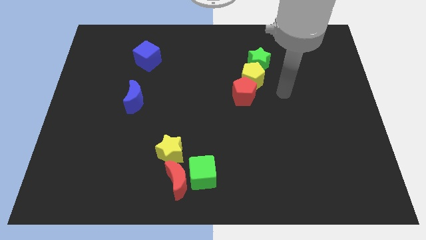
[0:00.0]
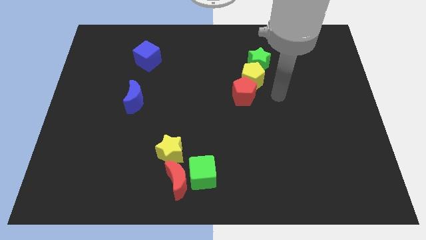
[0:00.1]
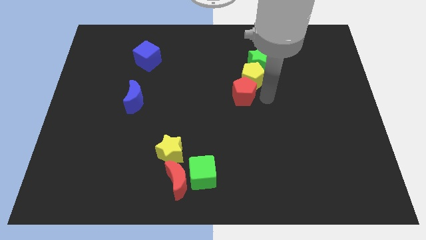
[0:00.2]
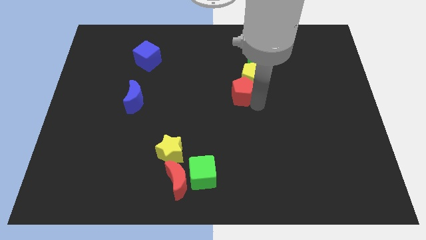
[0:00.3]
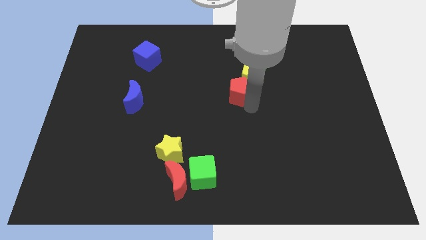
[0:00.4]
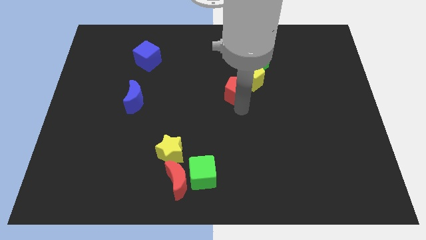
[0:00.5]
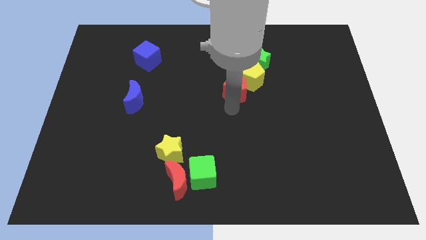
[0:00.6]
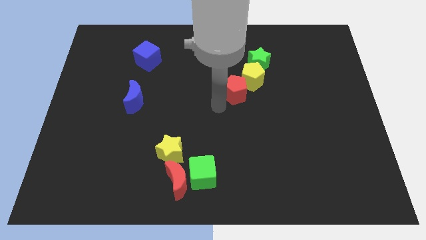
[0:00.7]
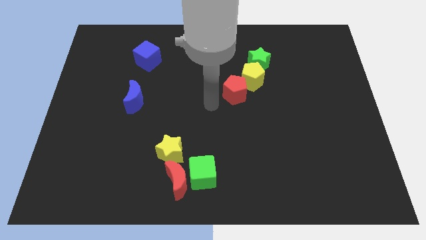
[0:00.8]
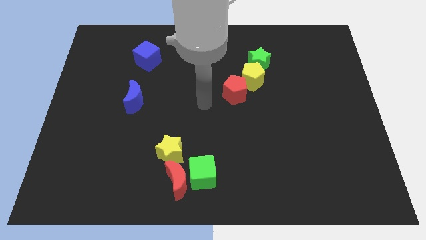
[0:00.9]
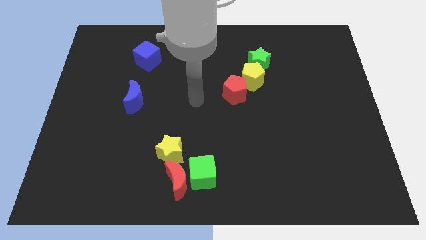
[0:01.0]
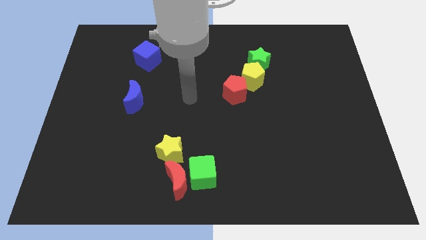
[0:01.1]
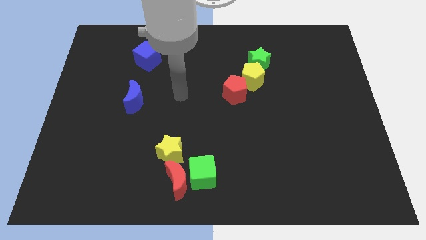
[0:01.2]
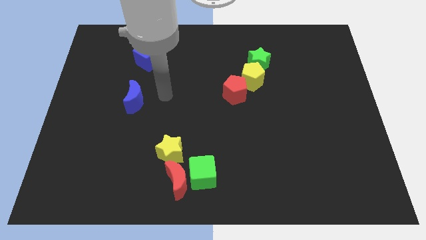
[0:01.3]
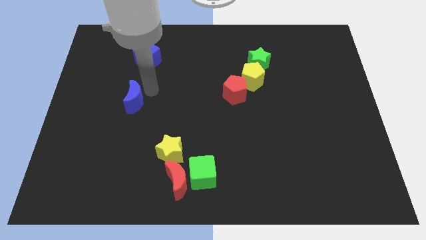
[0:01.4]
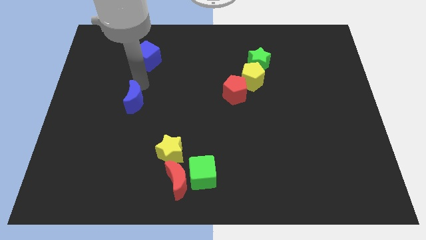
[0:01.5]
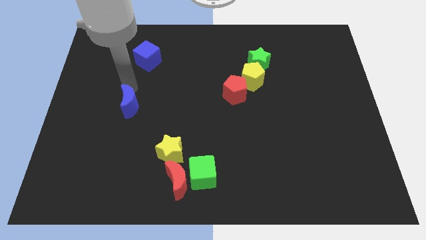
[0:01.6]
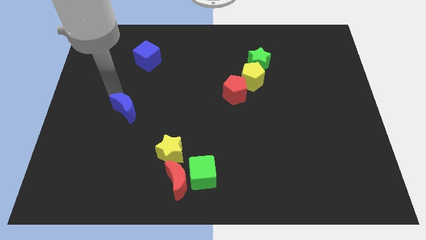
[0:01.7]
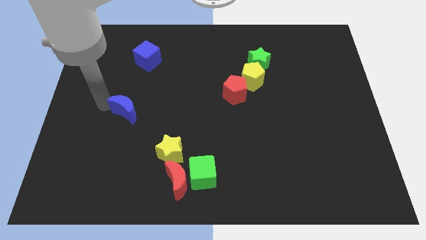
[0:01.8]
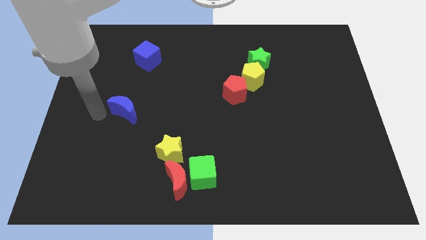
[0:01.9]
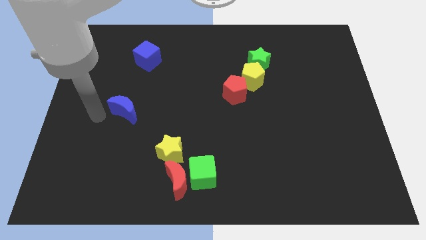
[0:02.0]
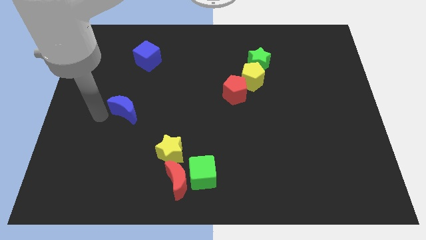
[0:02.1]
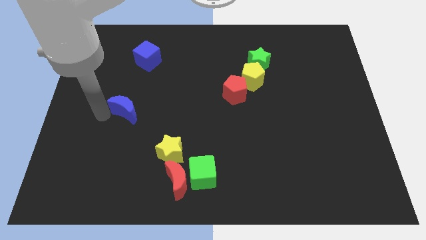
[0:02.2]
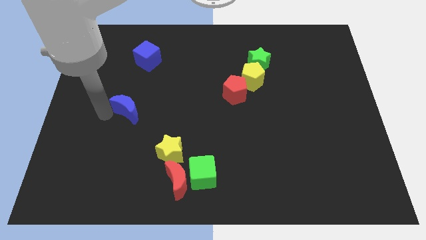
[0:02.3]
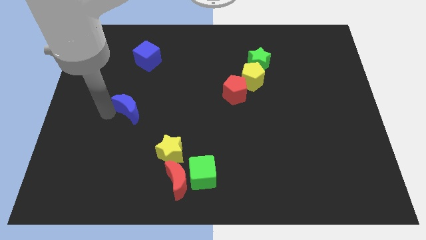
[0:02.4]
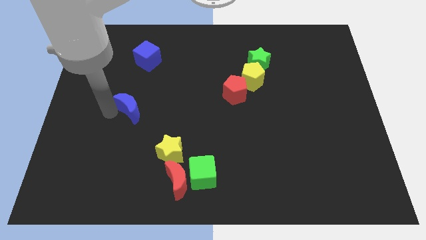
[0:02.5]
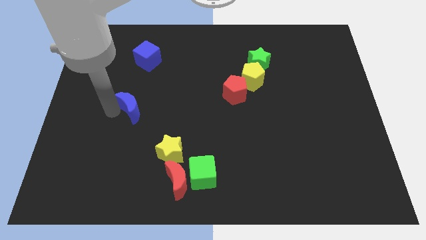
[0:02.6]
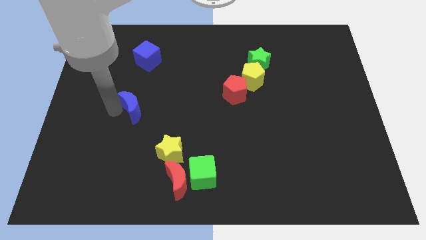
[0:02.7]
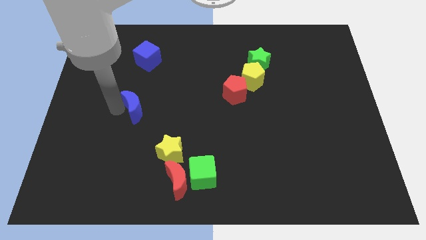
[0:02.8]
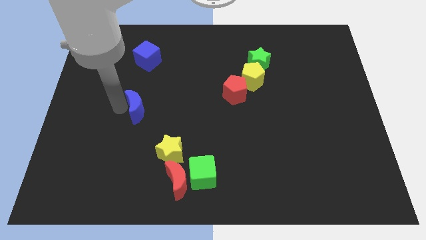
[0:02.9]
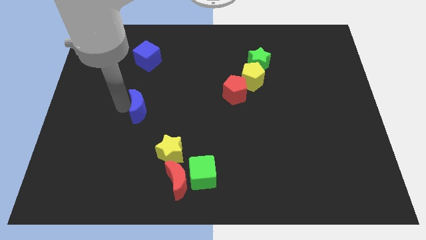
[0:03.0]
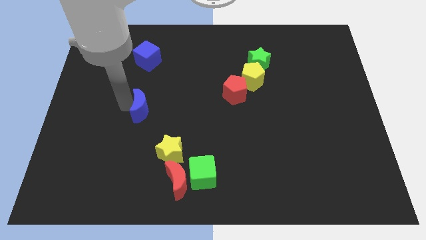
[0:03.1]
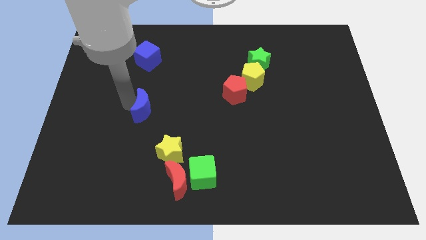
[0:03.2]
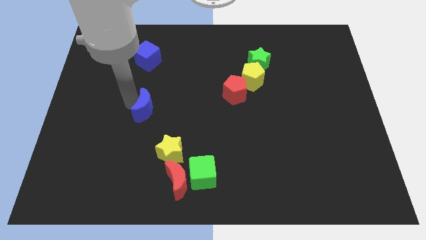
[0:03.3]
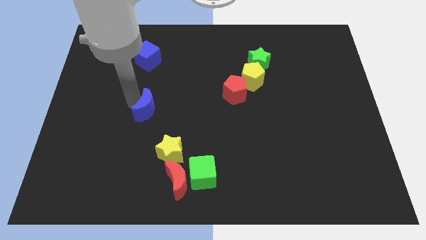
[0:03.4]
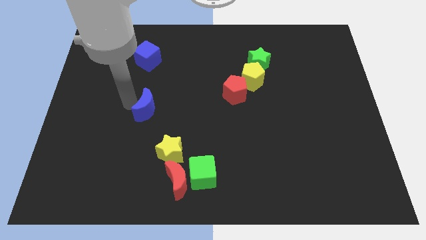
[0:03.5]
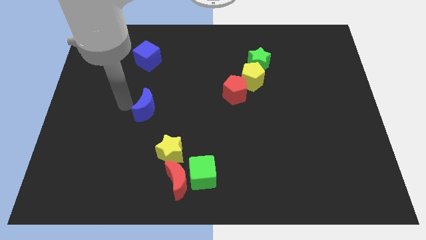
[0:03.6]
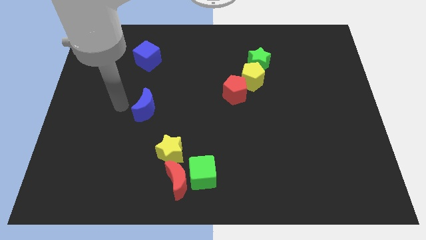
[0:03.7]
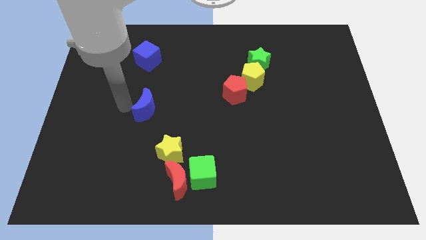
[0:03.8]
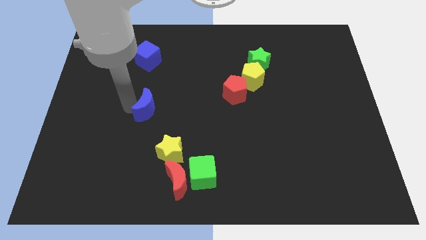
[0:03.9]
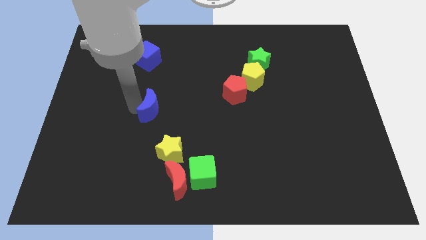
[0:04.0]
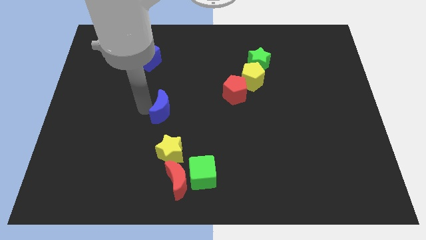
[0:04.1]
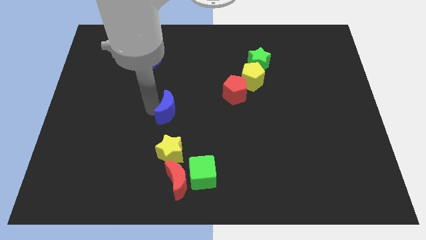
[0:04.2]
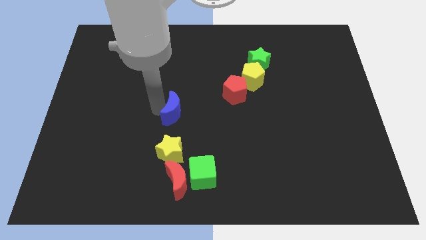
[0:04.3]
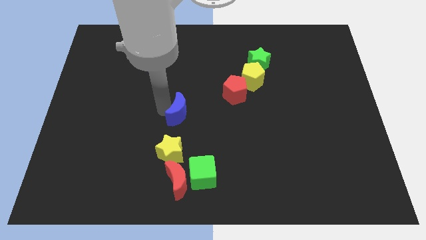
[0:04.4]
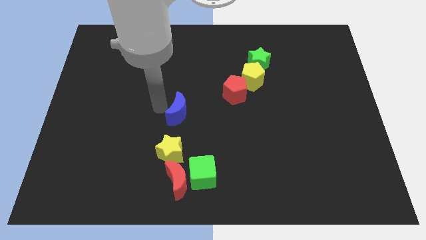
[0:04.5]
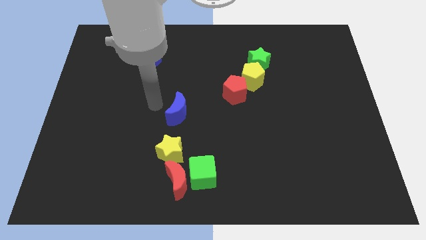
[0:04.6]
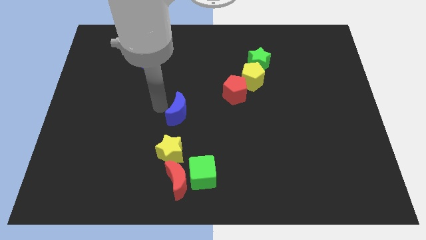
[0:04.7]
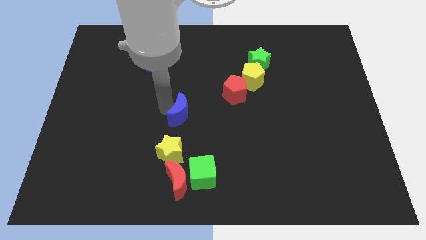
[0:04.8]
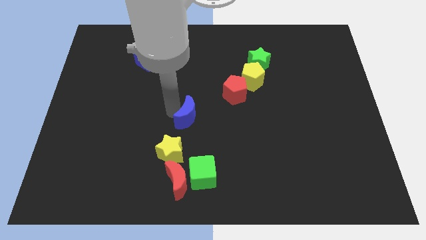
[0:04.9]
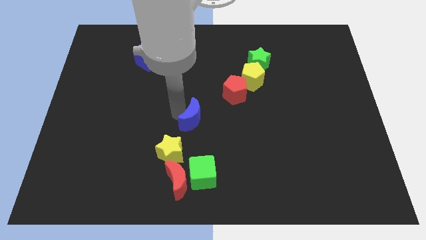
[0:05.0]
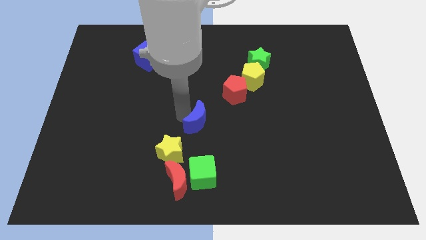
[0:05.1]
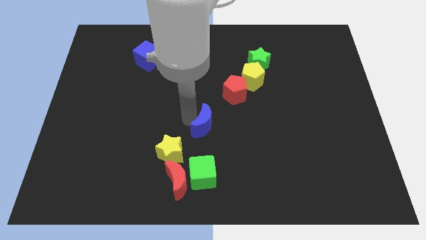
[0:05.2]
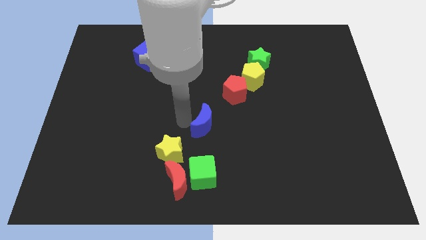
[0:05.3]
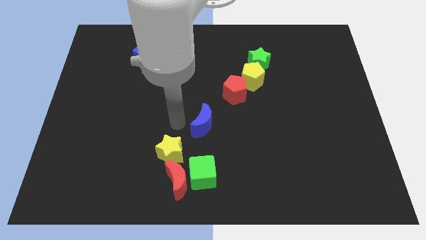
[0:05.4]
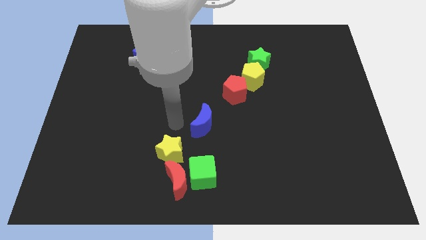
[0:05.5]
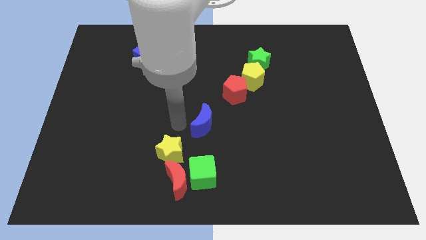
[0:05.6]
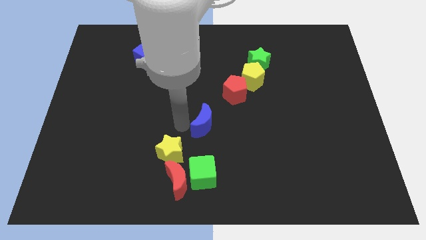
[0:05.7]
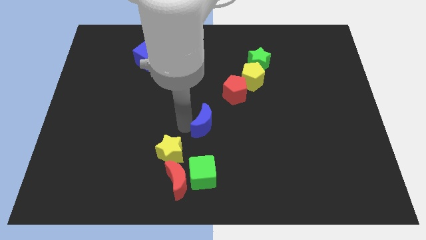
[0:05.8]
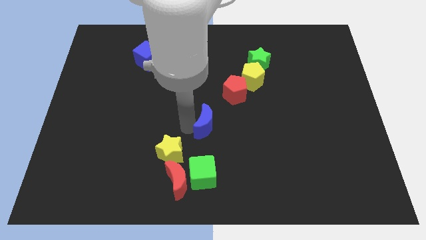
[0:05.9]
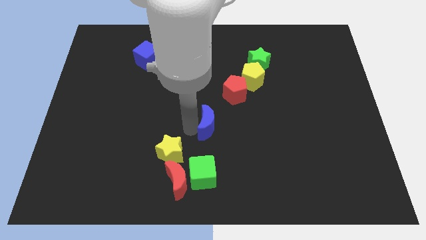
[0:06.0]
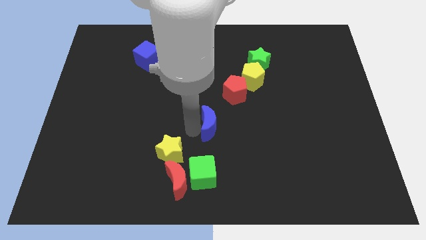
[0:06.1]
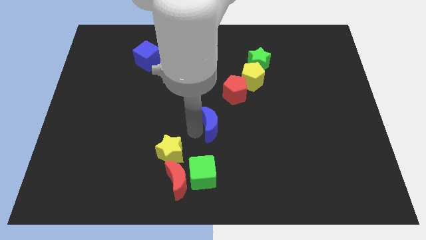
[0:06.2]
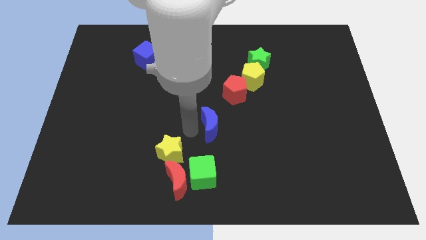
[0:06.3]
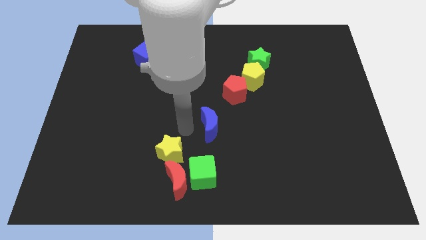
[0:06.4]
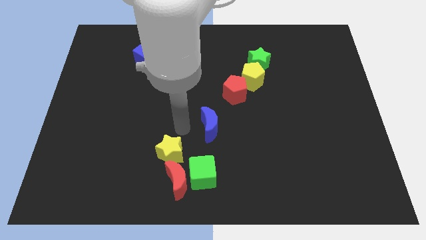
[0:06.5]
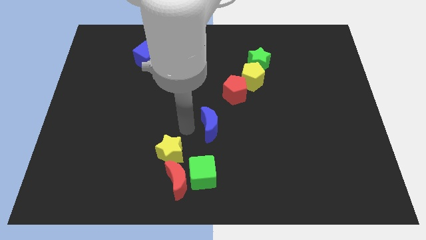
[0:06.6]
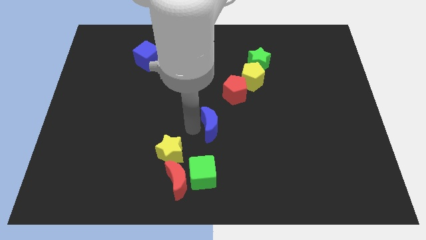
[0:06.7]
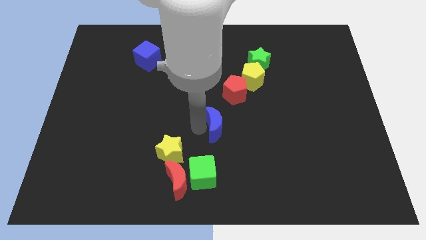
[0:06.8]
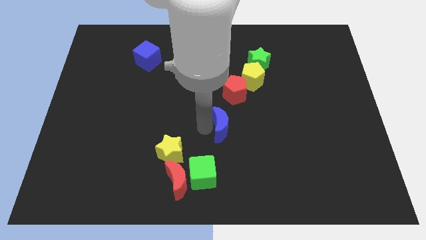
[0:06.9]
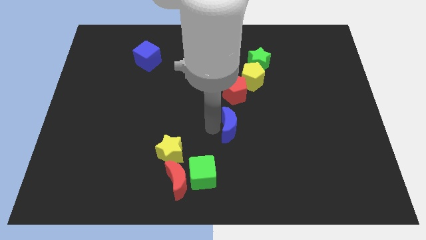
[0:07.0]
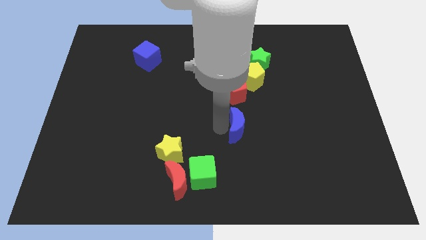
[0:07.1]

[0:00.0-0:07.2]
move the blue moon to the right

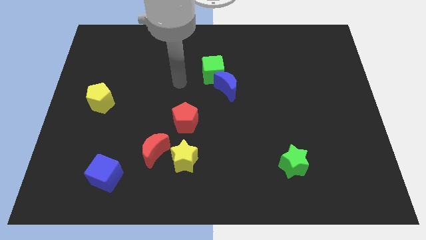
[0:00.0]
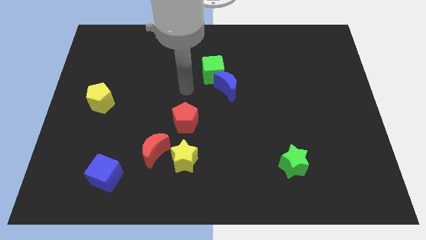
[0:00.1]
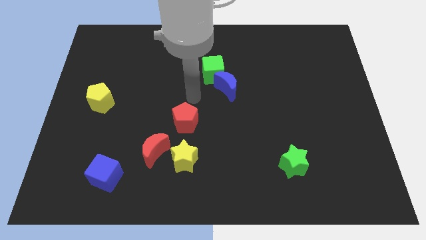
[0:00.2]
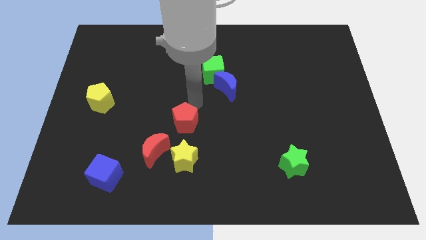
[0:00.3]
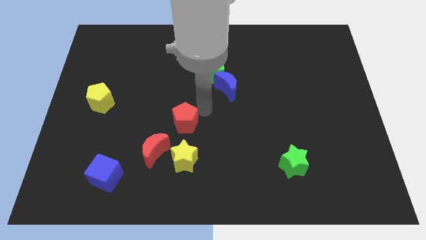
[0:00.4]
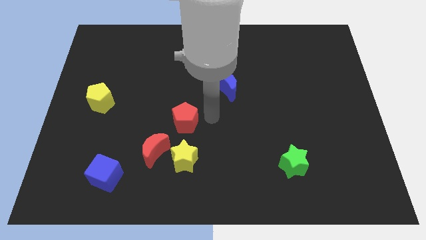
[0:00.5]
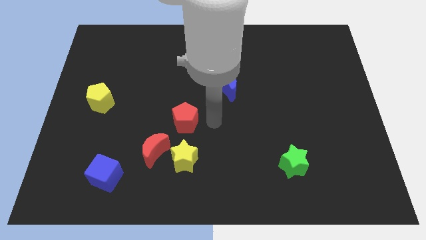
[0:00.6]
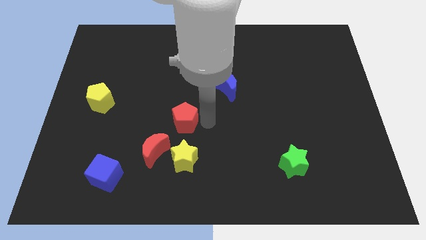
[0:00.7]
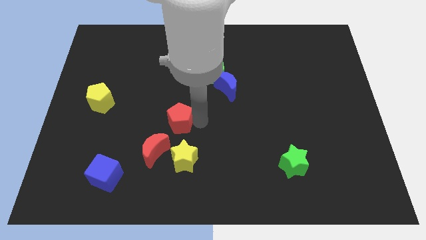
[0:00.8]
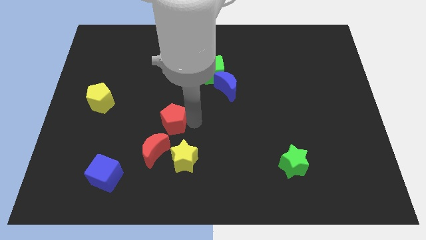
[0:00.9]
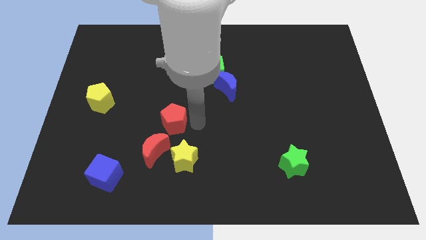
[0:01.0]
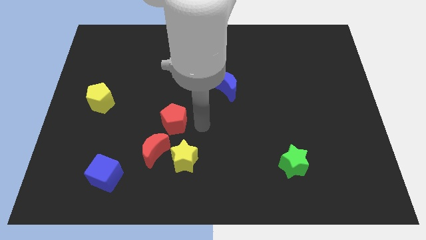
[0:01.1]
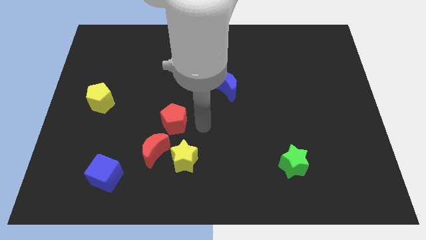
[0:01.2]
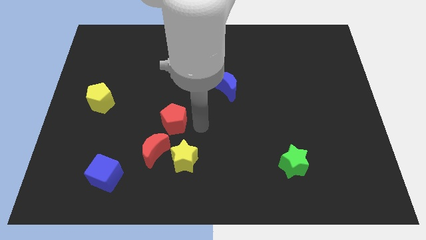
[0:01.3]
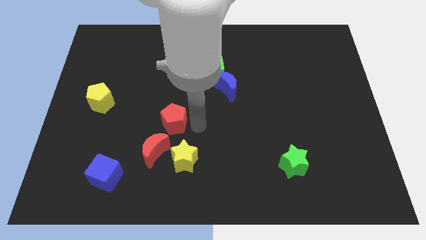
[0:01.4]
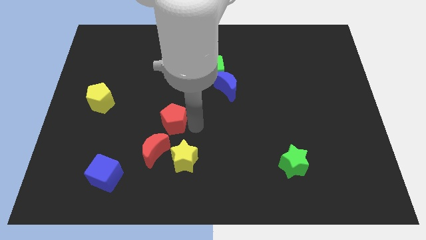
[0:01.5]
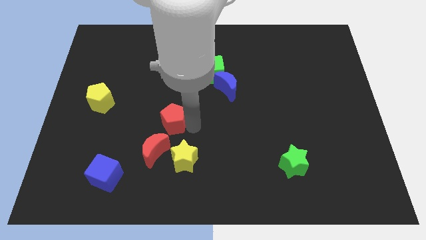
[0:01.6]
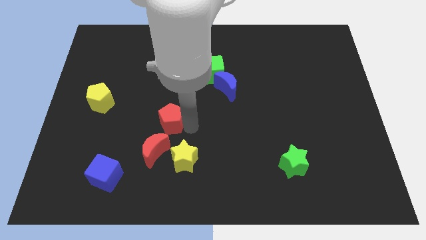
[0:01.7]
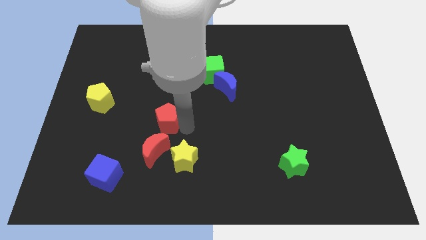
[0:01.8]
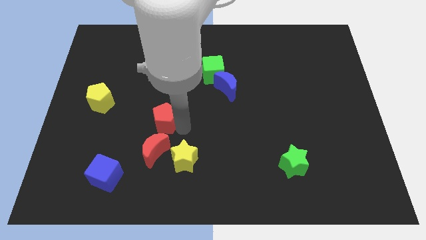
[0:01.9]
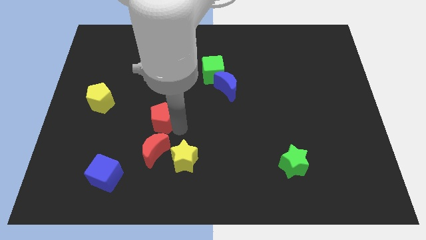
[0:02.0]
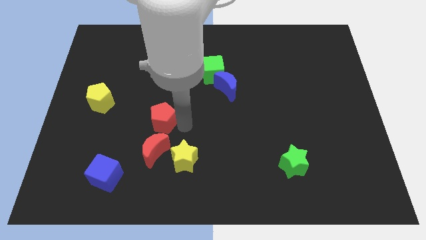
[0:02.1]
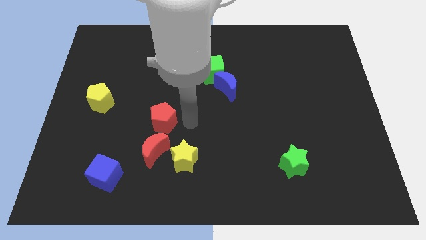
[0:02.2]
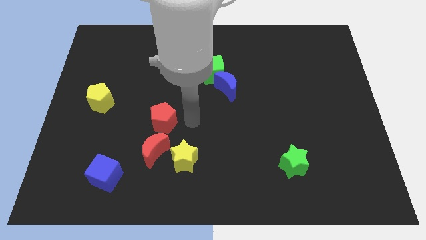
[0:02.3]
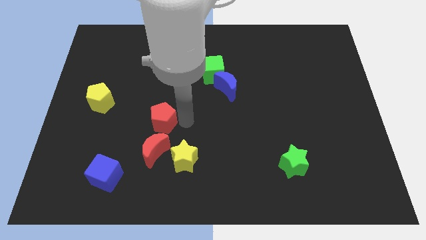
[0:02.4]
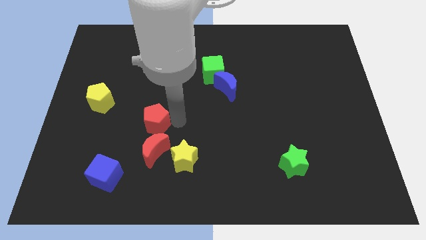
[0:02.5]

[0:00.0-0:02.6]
slightly move the red pentagon to the left
